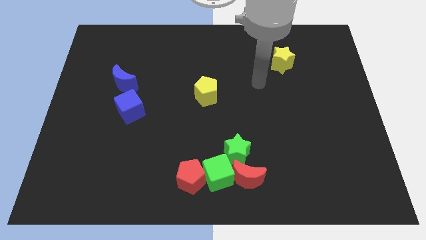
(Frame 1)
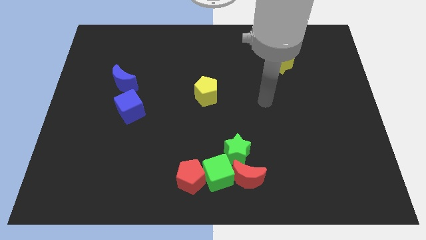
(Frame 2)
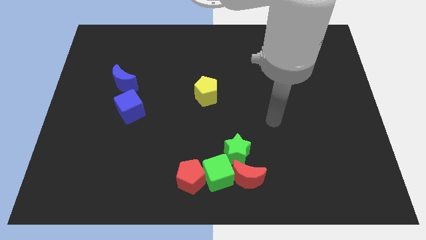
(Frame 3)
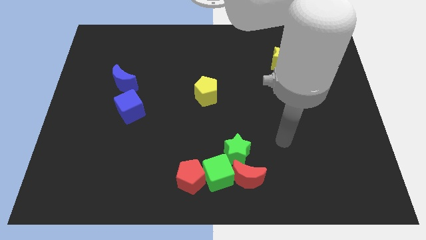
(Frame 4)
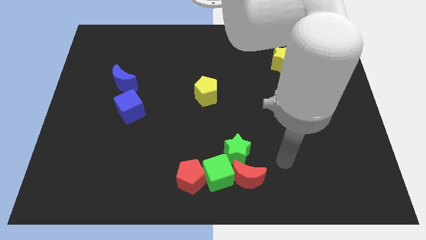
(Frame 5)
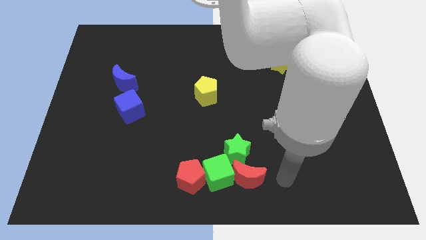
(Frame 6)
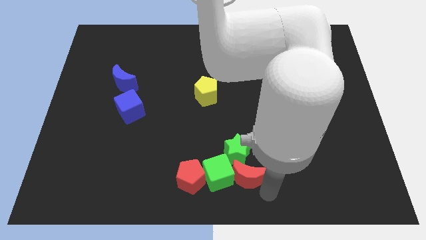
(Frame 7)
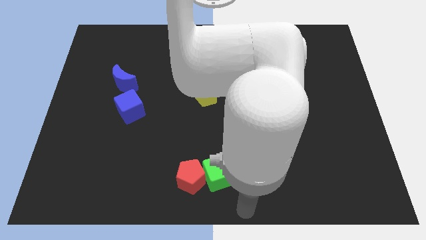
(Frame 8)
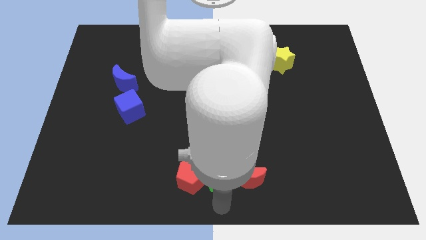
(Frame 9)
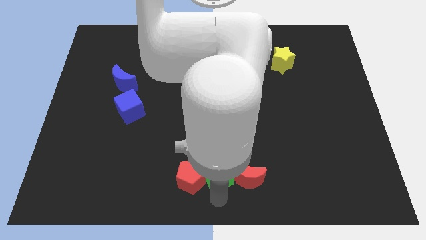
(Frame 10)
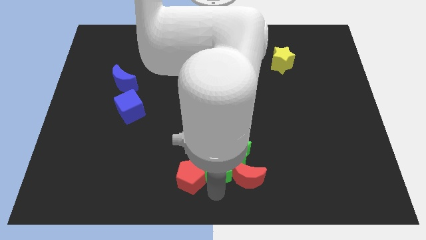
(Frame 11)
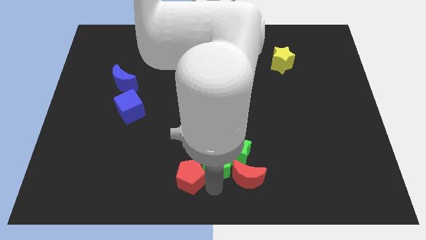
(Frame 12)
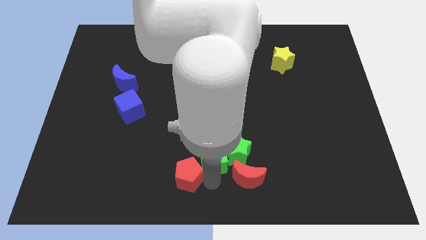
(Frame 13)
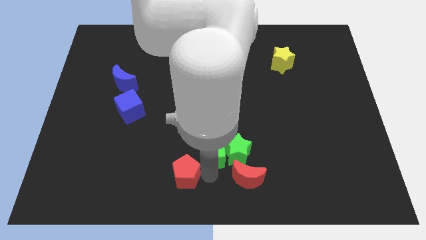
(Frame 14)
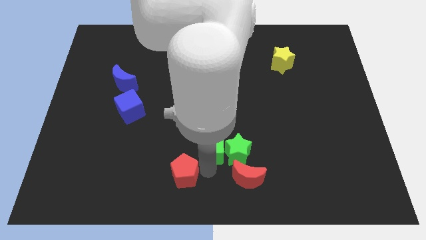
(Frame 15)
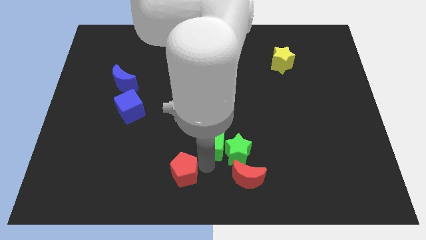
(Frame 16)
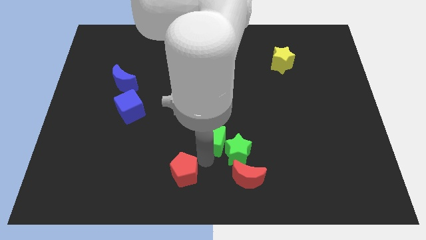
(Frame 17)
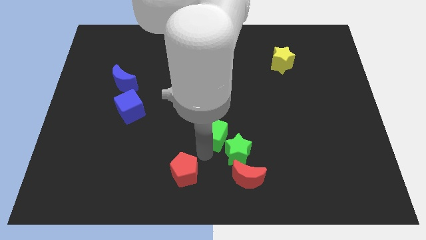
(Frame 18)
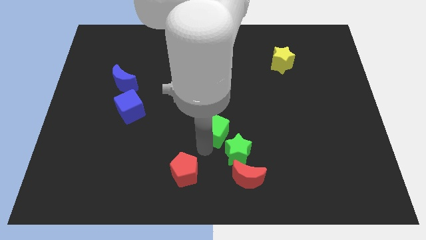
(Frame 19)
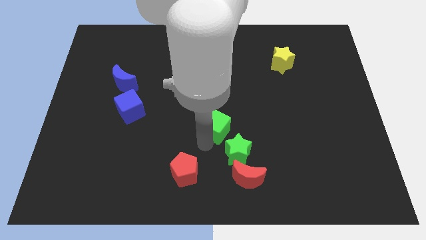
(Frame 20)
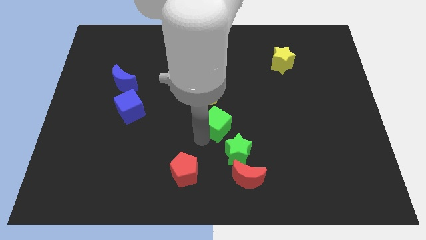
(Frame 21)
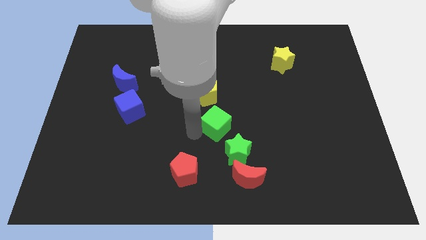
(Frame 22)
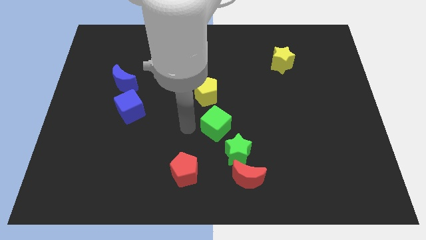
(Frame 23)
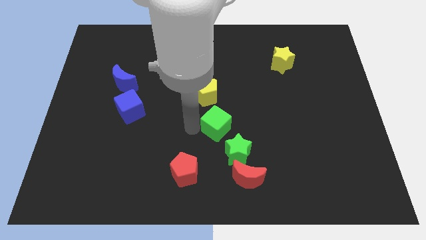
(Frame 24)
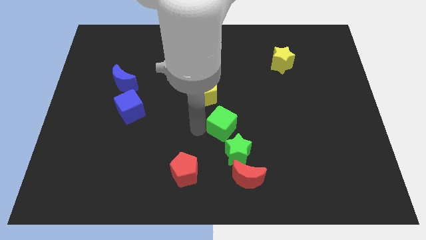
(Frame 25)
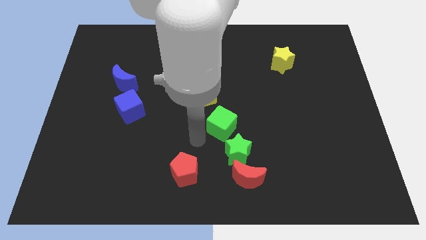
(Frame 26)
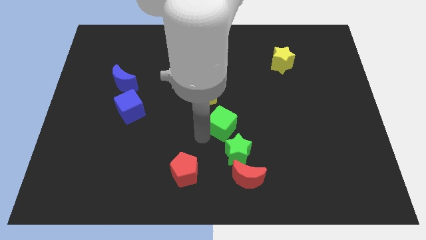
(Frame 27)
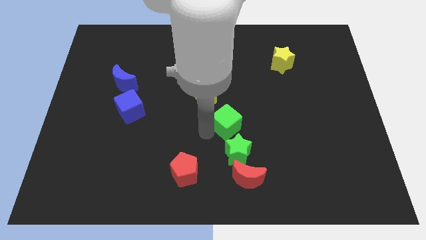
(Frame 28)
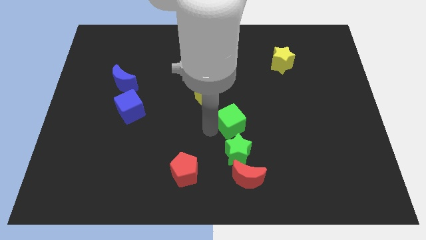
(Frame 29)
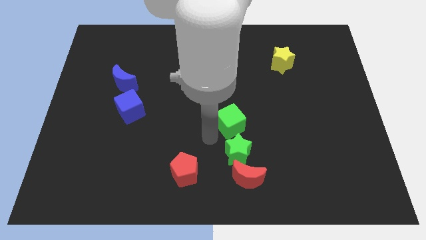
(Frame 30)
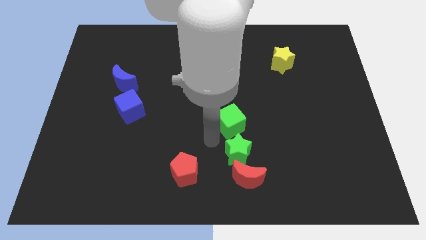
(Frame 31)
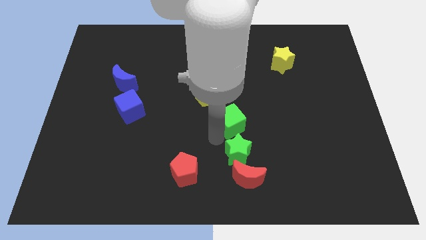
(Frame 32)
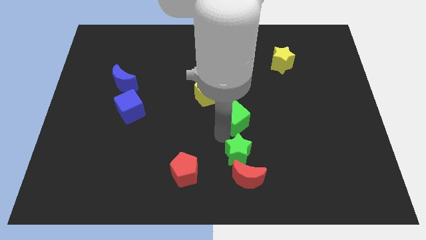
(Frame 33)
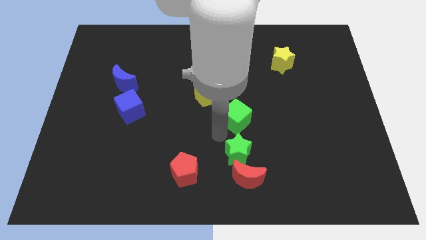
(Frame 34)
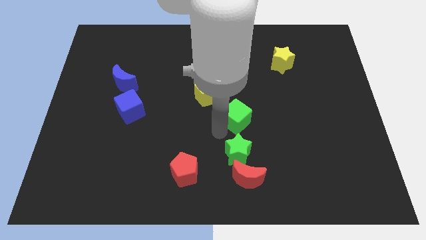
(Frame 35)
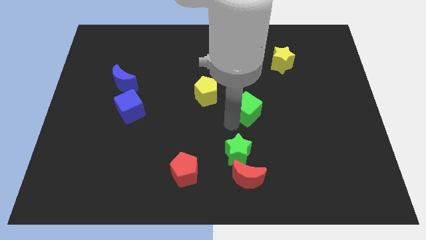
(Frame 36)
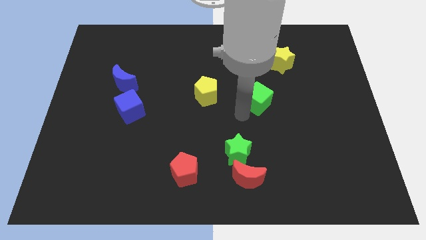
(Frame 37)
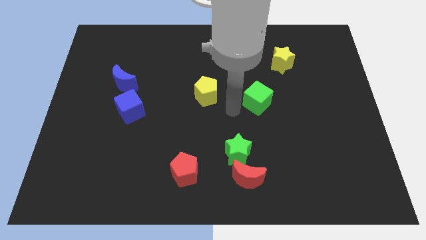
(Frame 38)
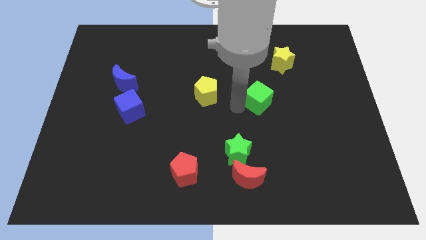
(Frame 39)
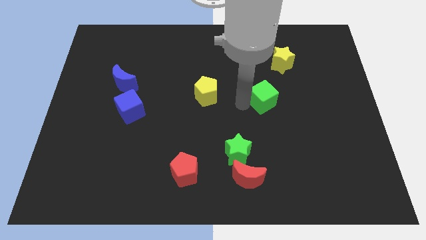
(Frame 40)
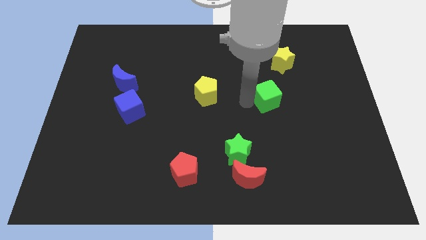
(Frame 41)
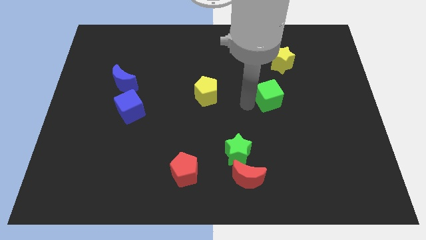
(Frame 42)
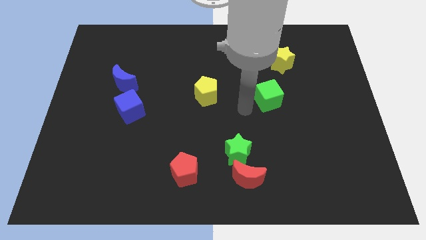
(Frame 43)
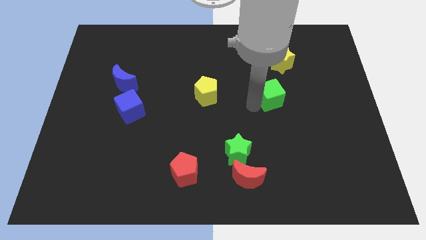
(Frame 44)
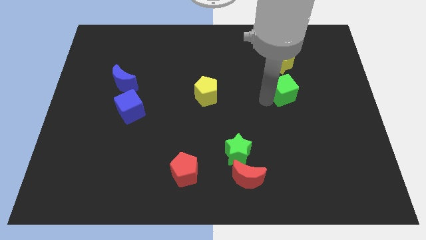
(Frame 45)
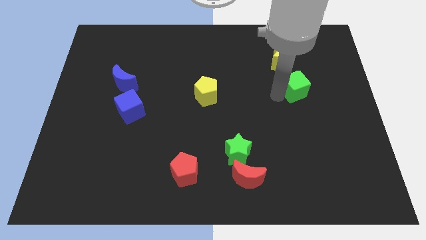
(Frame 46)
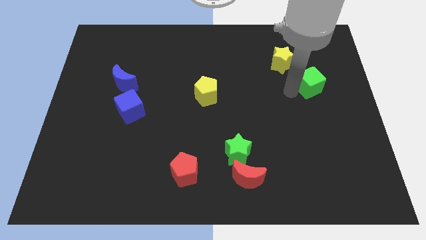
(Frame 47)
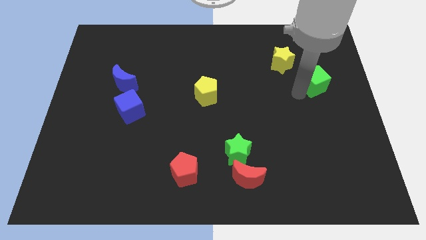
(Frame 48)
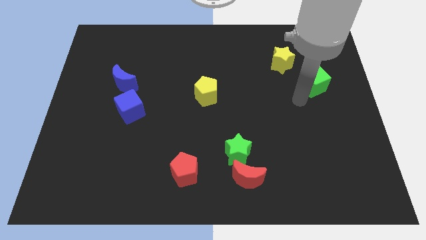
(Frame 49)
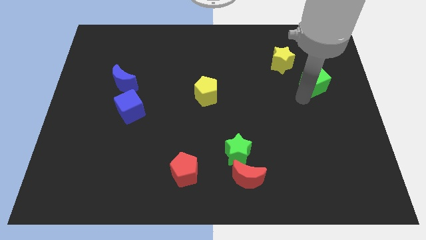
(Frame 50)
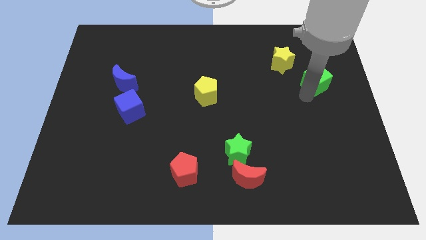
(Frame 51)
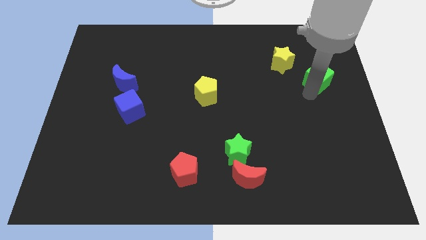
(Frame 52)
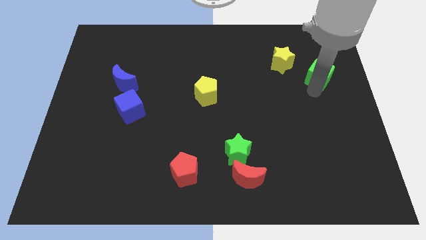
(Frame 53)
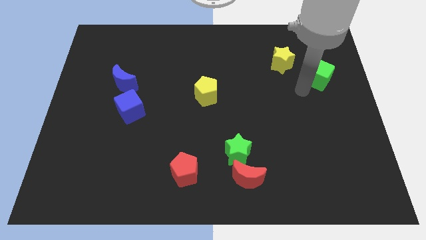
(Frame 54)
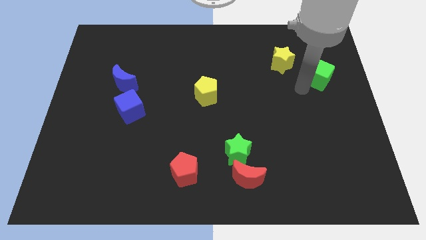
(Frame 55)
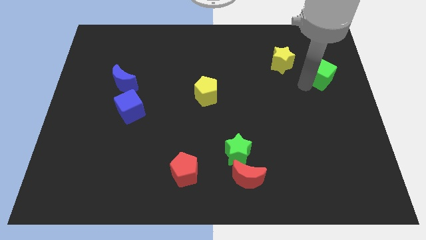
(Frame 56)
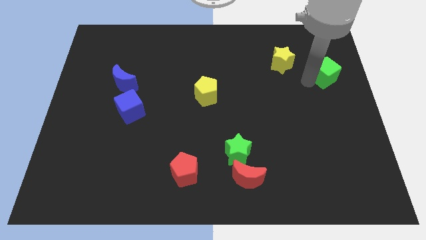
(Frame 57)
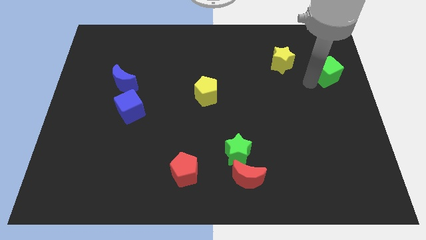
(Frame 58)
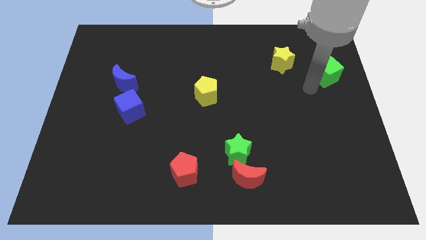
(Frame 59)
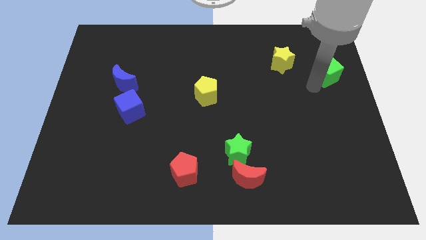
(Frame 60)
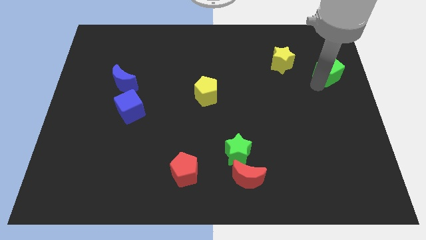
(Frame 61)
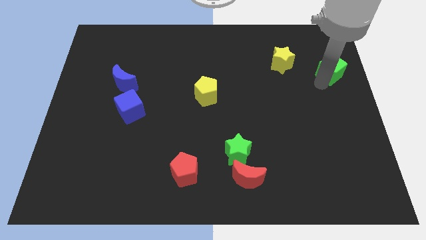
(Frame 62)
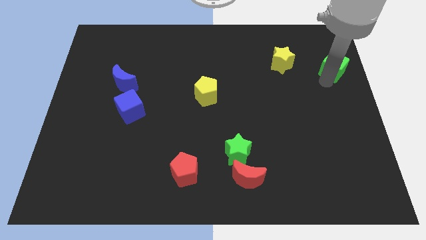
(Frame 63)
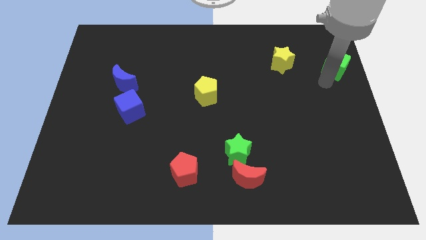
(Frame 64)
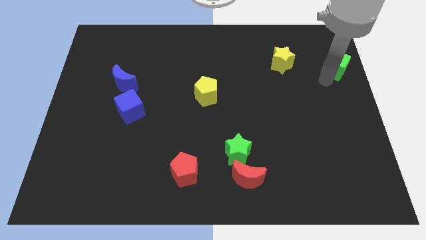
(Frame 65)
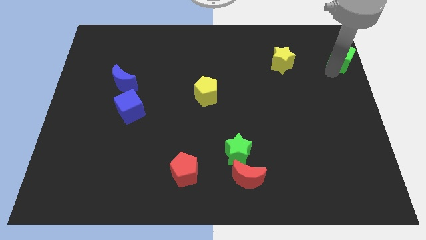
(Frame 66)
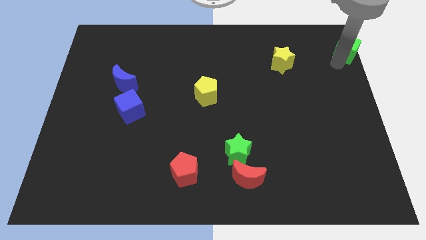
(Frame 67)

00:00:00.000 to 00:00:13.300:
move the green cube to the top right corner

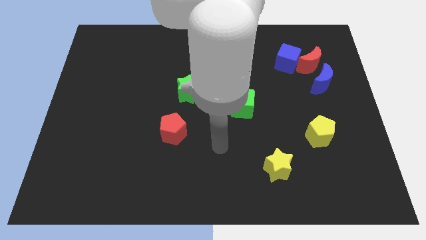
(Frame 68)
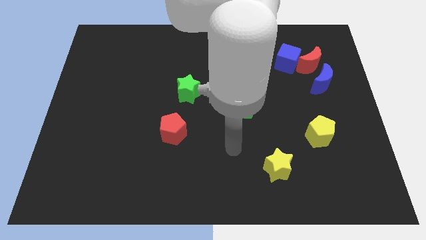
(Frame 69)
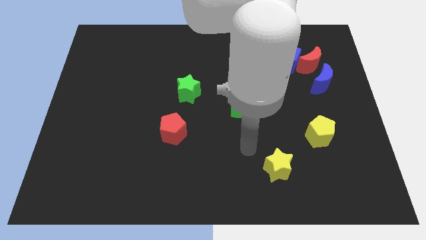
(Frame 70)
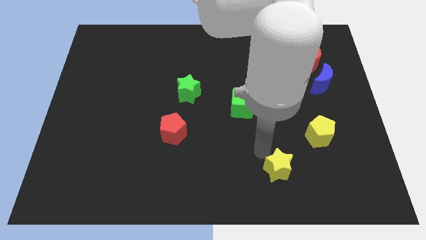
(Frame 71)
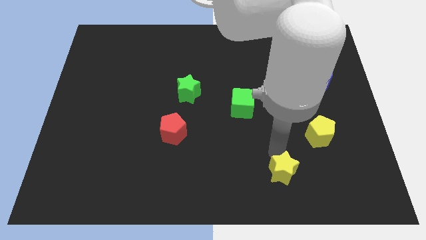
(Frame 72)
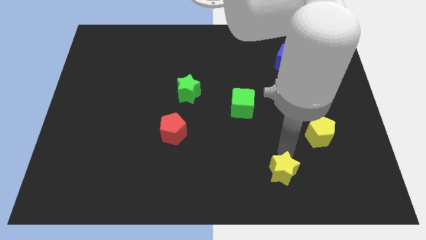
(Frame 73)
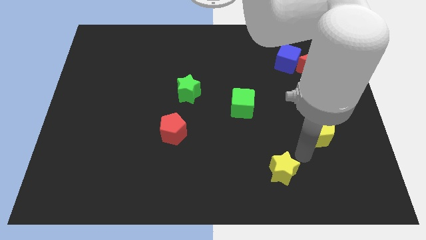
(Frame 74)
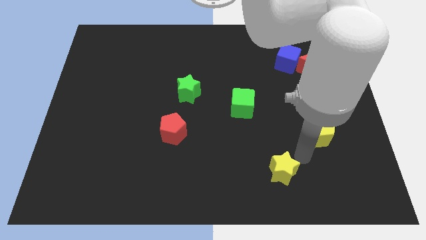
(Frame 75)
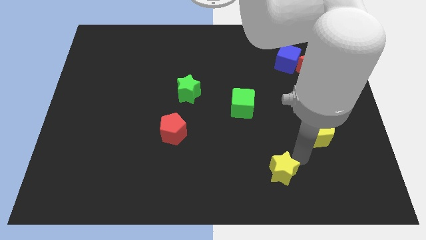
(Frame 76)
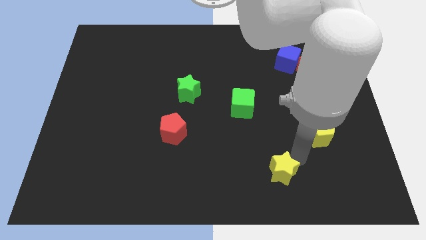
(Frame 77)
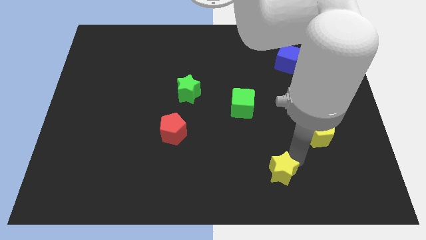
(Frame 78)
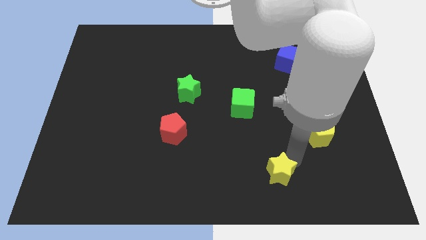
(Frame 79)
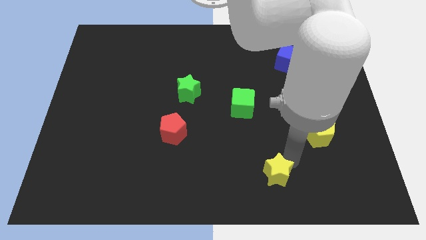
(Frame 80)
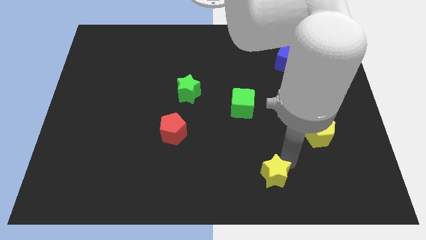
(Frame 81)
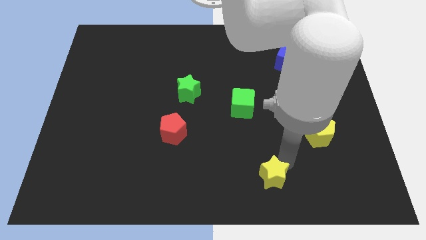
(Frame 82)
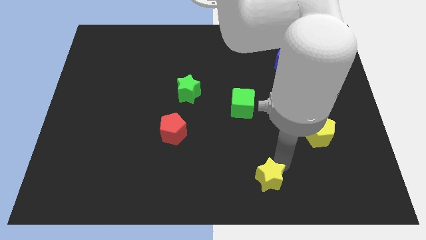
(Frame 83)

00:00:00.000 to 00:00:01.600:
move the yellow star to the bottom
